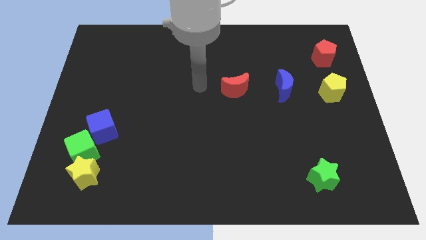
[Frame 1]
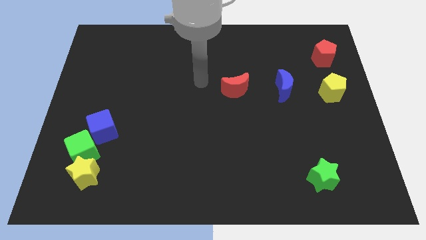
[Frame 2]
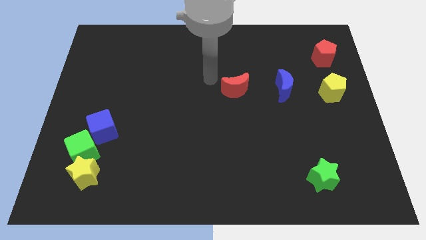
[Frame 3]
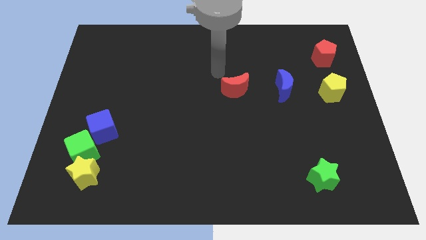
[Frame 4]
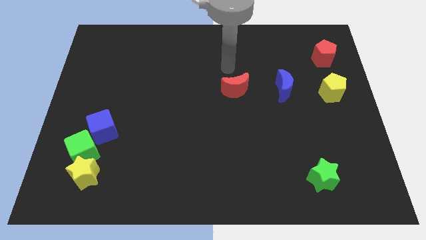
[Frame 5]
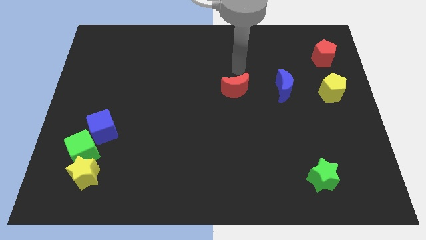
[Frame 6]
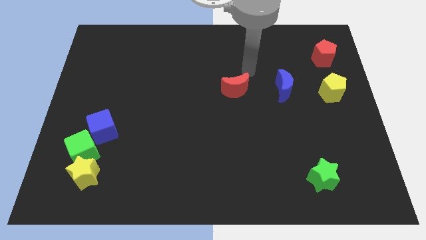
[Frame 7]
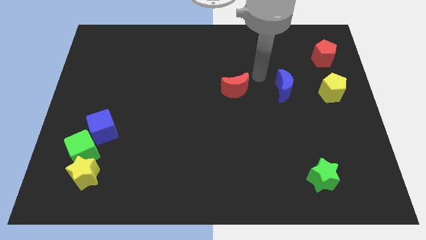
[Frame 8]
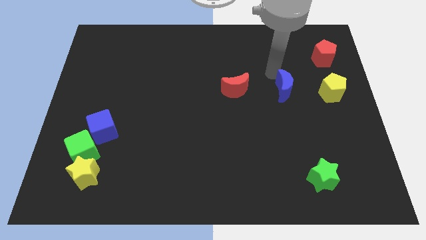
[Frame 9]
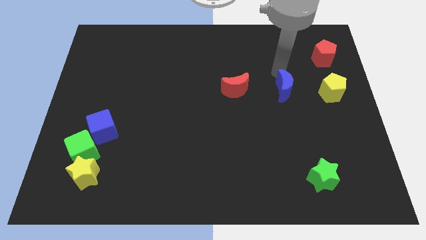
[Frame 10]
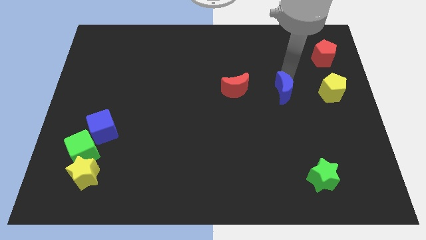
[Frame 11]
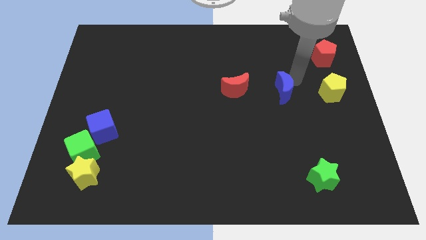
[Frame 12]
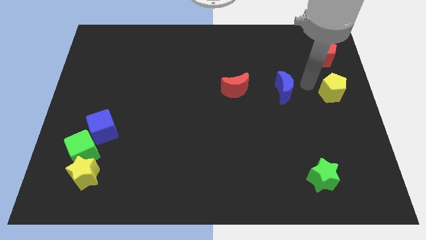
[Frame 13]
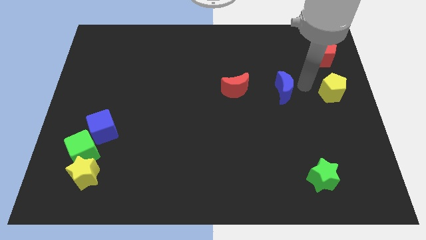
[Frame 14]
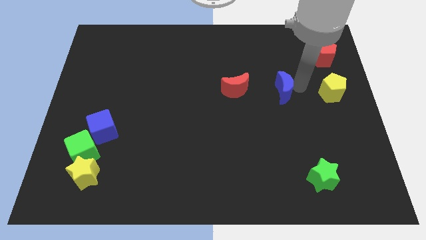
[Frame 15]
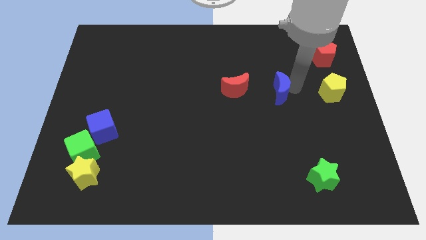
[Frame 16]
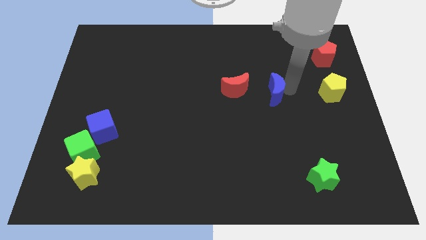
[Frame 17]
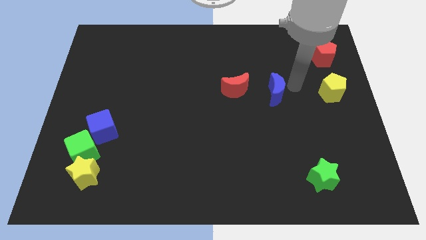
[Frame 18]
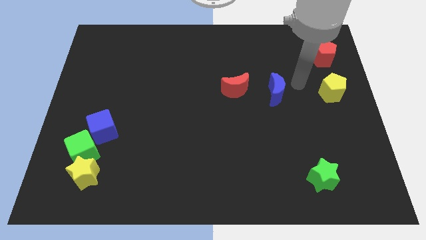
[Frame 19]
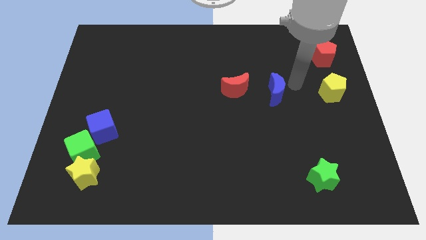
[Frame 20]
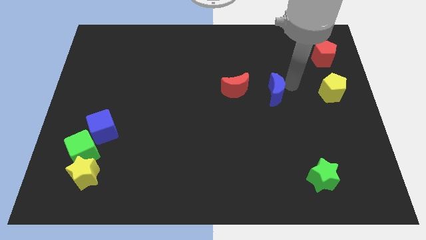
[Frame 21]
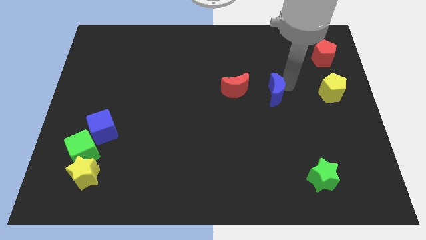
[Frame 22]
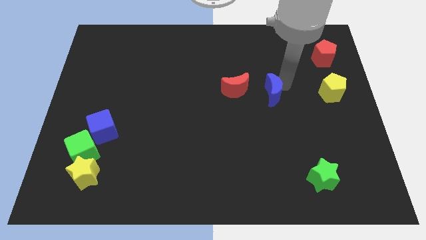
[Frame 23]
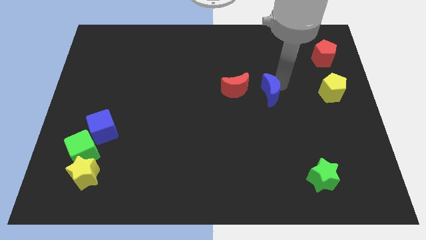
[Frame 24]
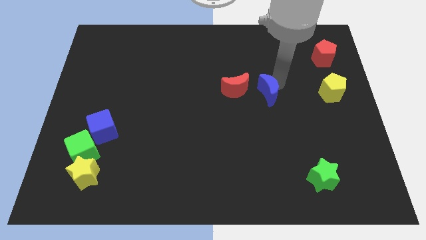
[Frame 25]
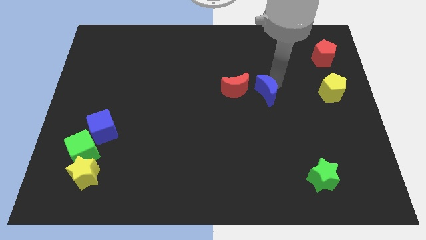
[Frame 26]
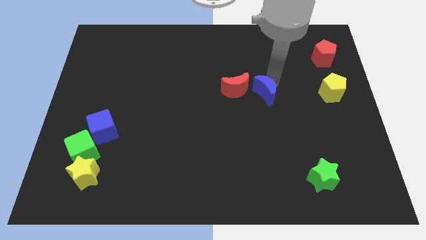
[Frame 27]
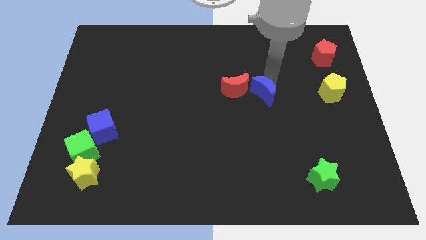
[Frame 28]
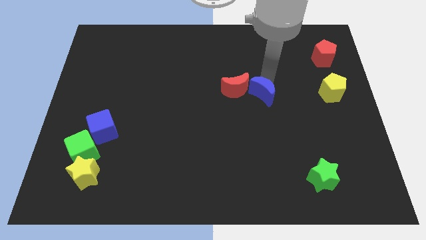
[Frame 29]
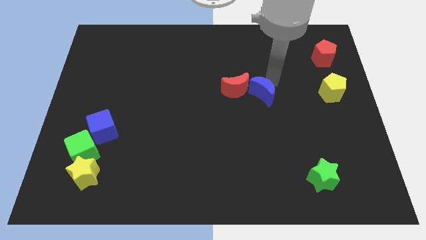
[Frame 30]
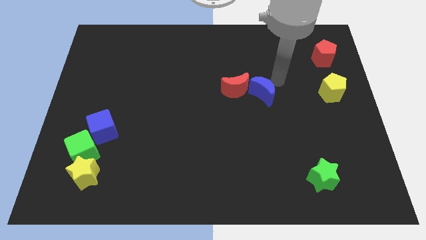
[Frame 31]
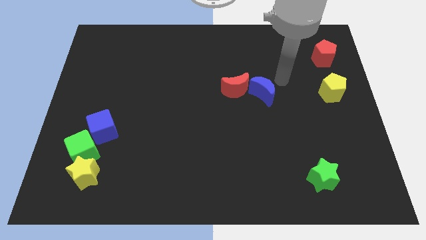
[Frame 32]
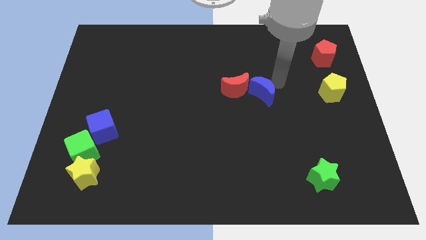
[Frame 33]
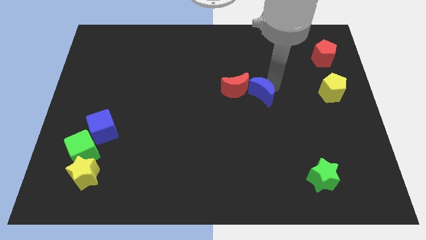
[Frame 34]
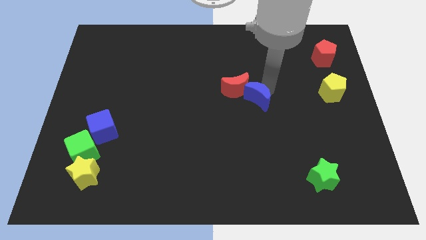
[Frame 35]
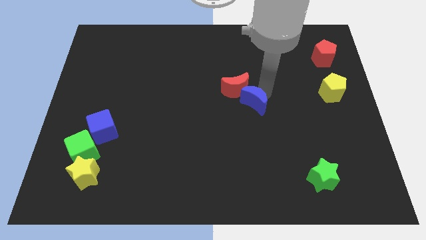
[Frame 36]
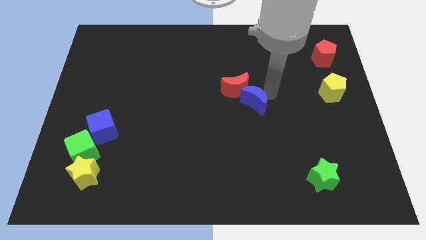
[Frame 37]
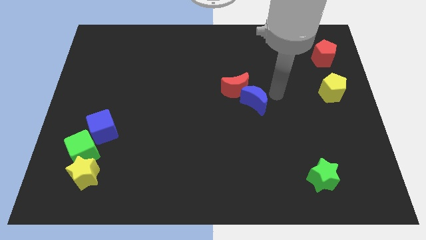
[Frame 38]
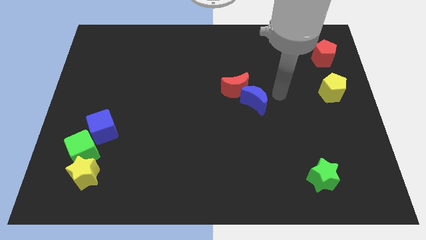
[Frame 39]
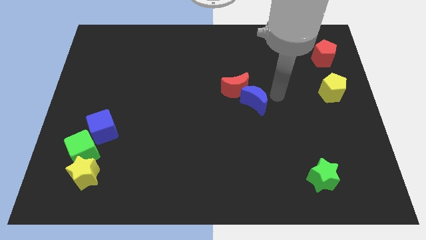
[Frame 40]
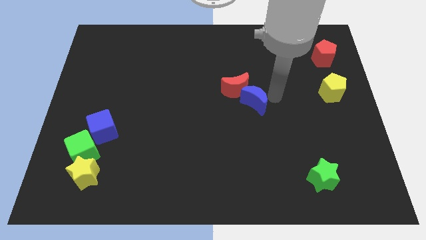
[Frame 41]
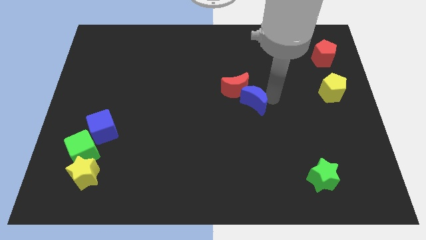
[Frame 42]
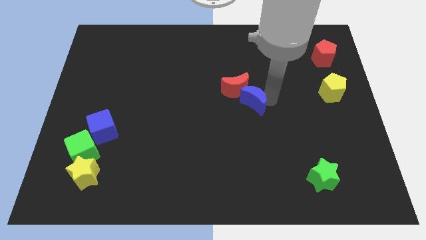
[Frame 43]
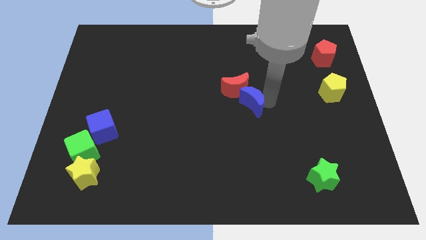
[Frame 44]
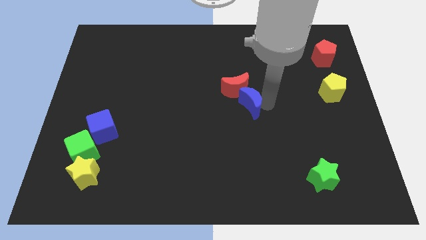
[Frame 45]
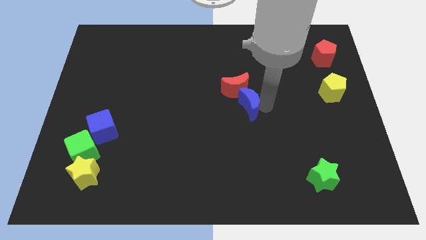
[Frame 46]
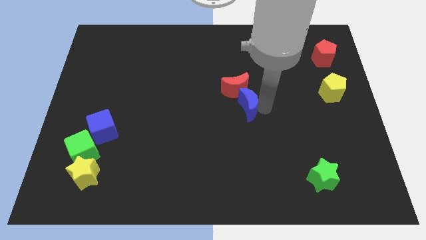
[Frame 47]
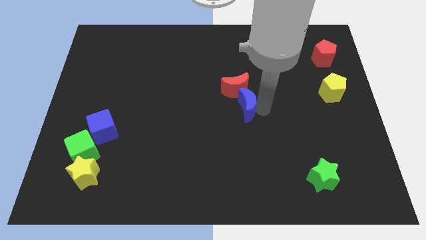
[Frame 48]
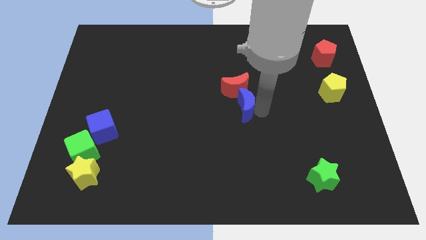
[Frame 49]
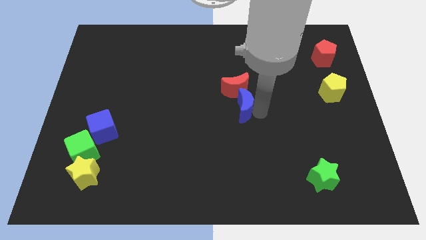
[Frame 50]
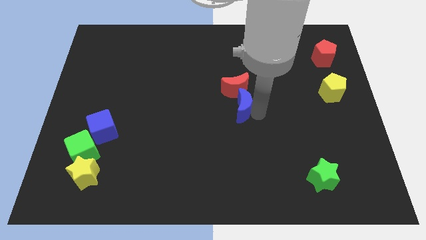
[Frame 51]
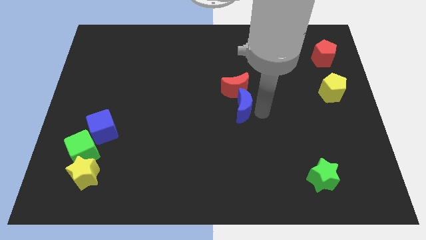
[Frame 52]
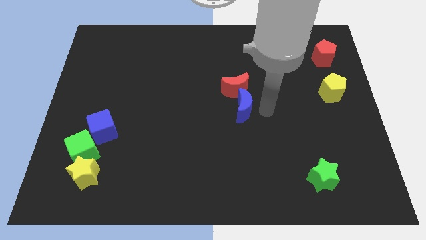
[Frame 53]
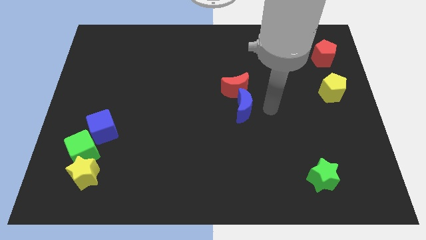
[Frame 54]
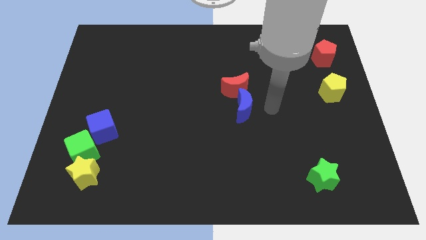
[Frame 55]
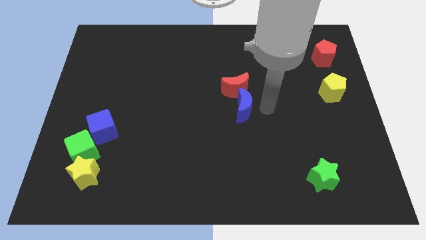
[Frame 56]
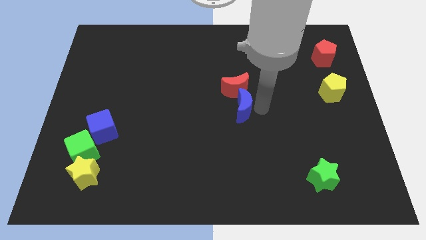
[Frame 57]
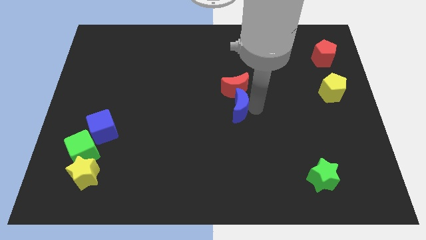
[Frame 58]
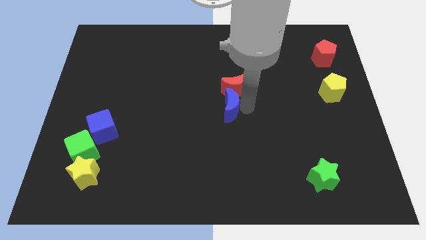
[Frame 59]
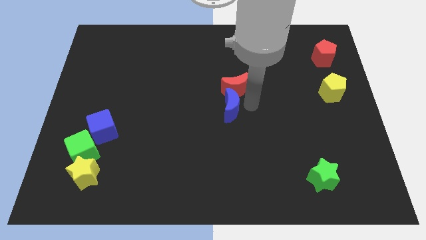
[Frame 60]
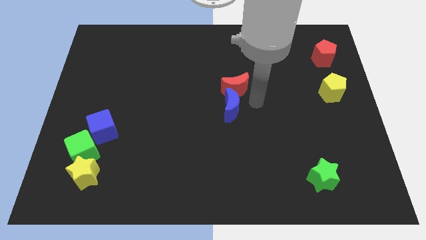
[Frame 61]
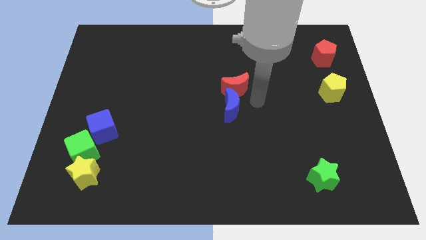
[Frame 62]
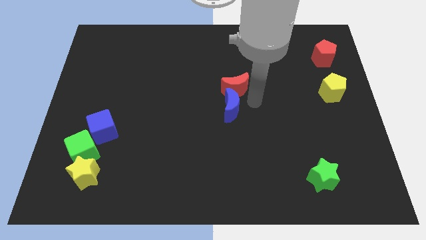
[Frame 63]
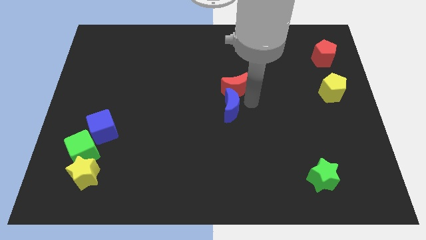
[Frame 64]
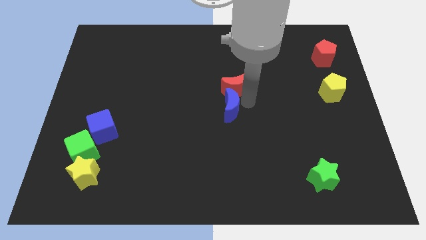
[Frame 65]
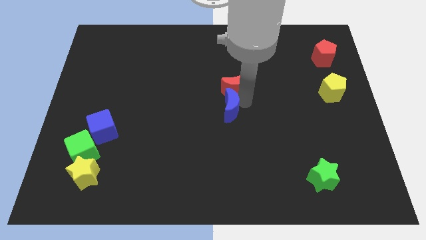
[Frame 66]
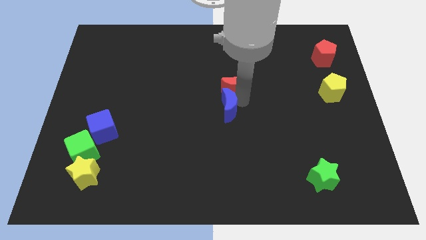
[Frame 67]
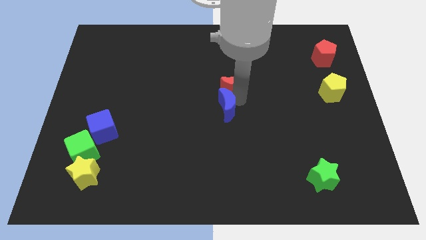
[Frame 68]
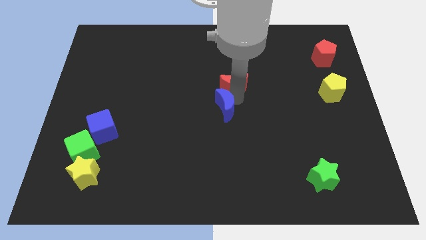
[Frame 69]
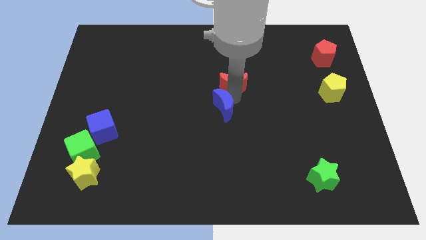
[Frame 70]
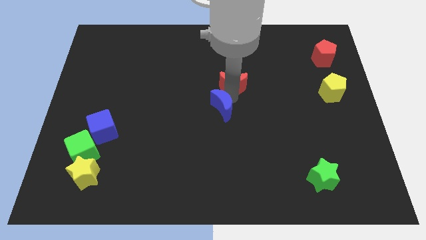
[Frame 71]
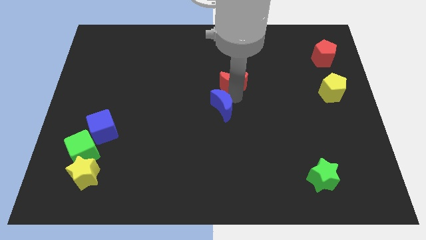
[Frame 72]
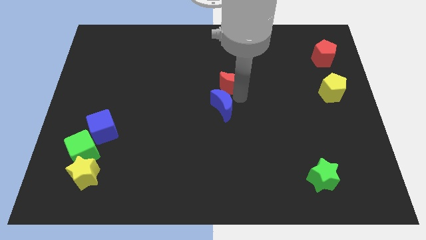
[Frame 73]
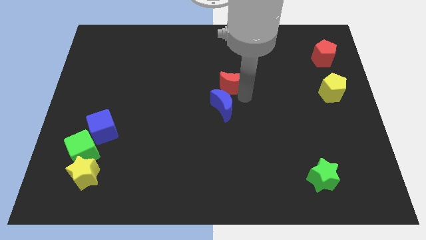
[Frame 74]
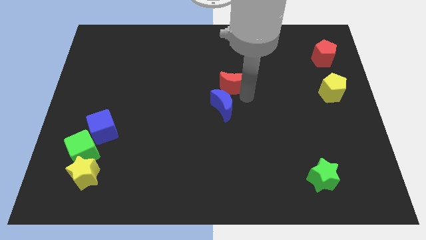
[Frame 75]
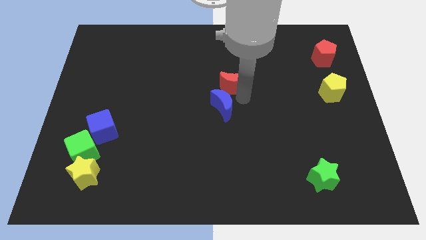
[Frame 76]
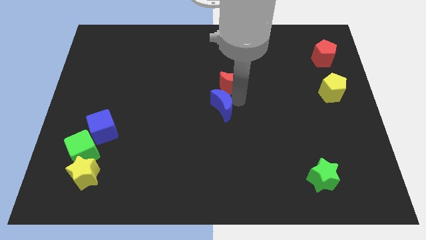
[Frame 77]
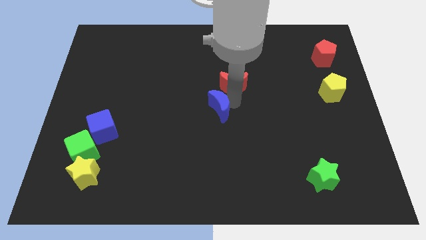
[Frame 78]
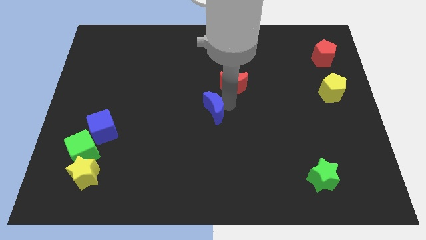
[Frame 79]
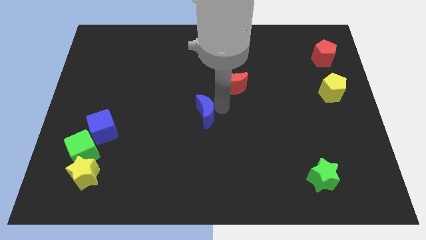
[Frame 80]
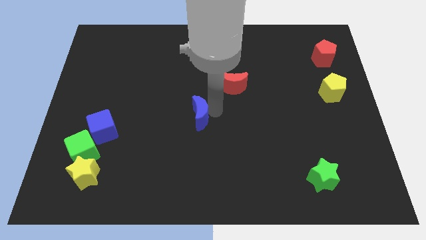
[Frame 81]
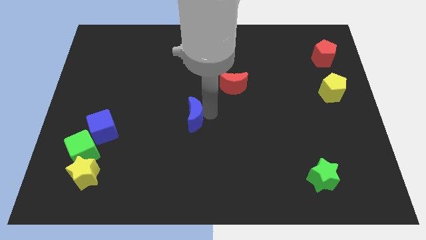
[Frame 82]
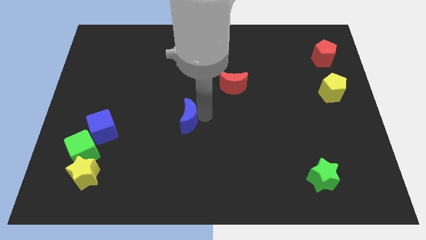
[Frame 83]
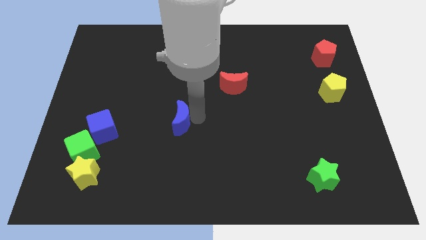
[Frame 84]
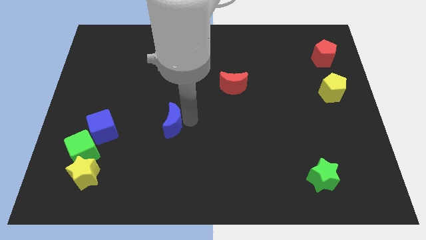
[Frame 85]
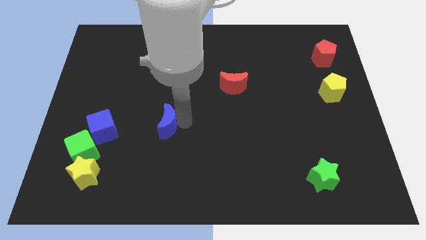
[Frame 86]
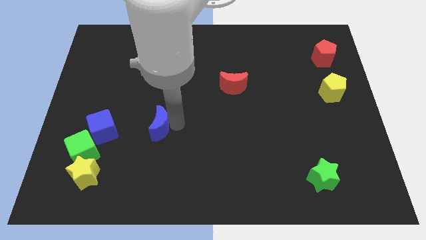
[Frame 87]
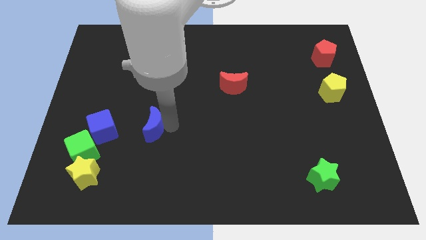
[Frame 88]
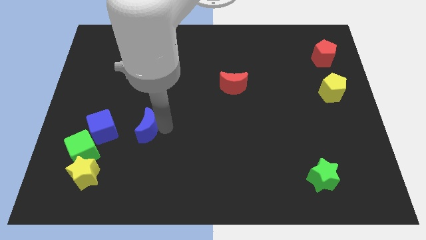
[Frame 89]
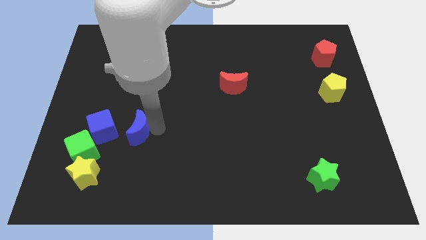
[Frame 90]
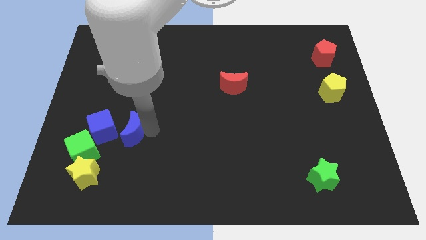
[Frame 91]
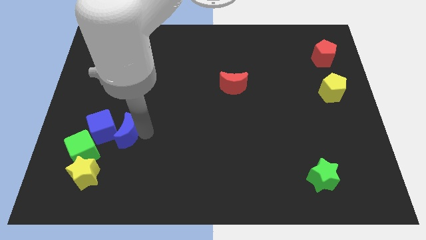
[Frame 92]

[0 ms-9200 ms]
push the blue moon towards the blue cube
